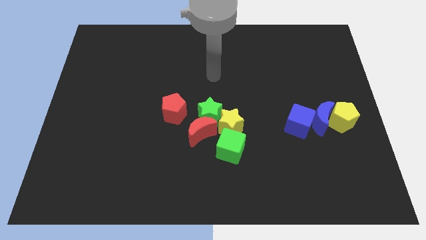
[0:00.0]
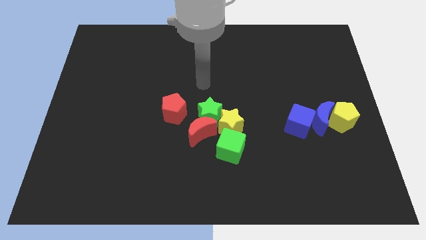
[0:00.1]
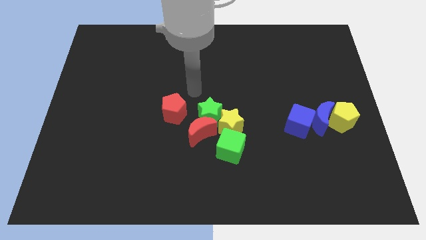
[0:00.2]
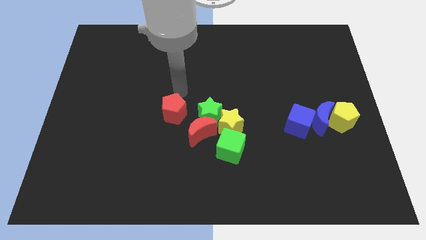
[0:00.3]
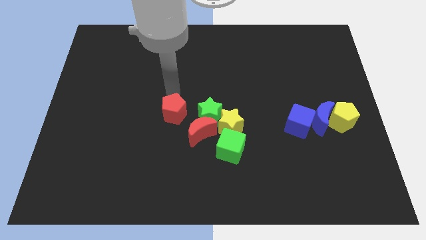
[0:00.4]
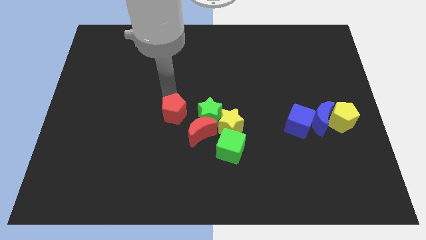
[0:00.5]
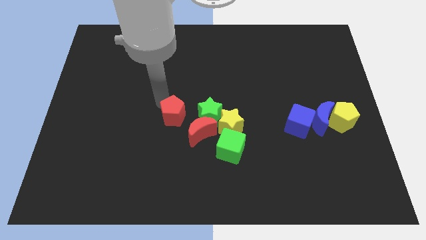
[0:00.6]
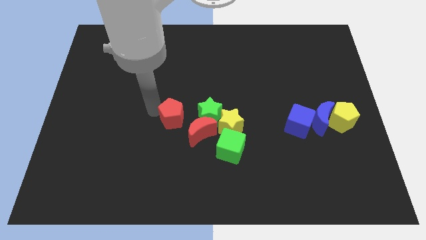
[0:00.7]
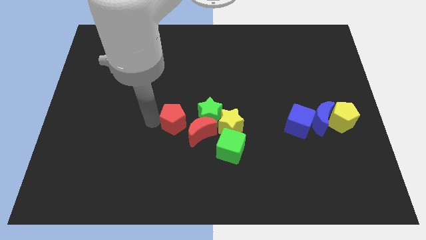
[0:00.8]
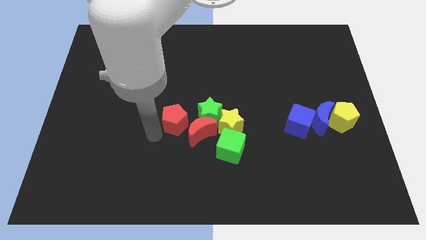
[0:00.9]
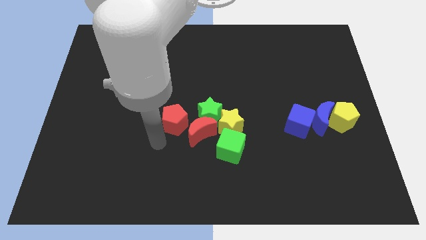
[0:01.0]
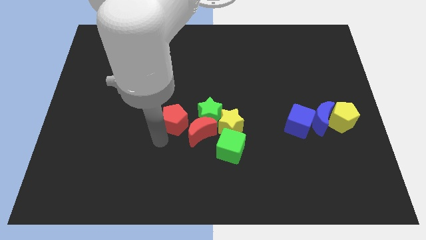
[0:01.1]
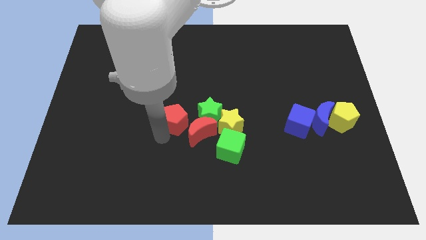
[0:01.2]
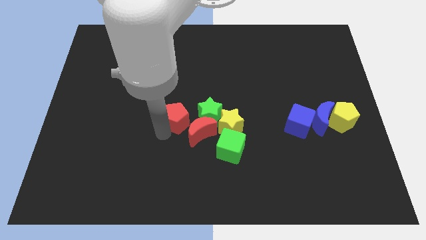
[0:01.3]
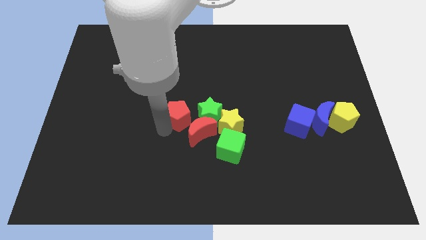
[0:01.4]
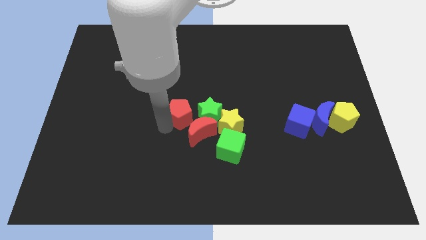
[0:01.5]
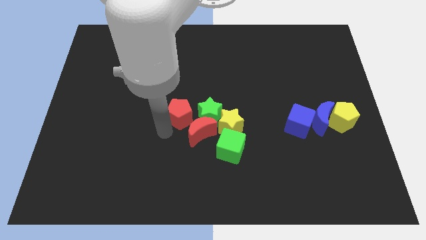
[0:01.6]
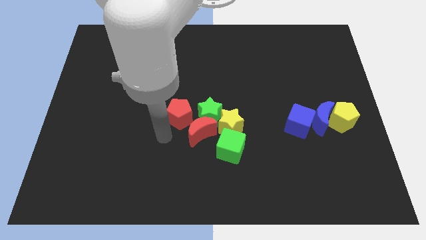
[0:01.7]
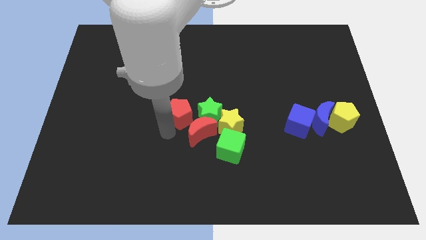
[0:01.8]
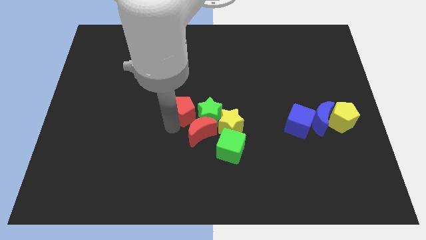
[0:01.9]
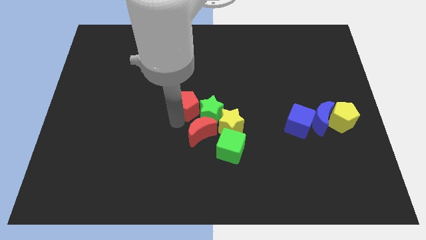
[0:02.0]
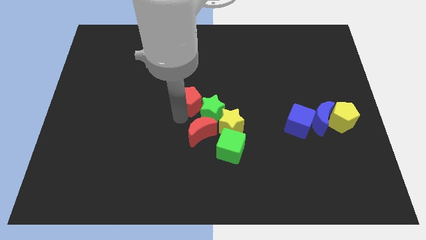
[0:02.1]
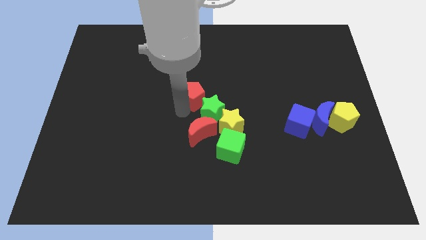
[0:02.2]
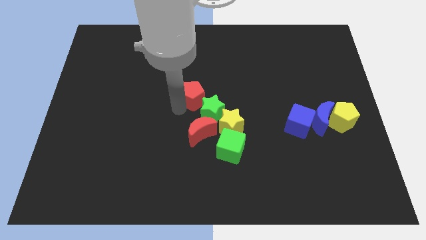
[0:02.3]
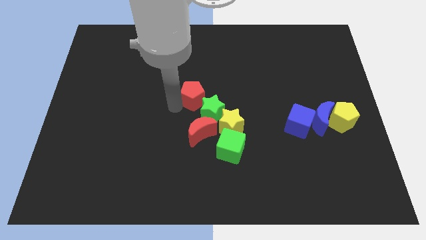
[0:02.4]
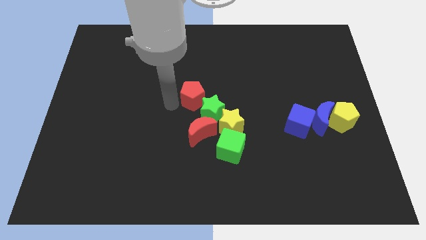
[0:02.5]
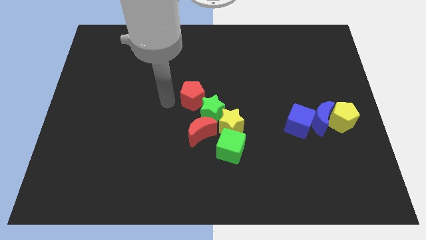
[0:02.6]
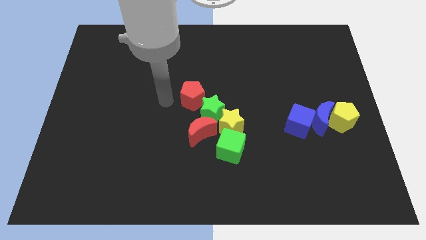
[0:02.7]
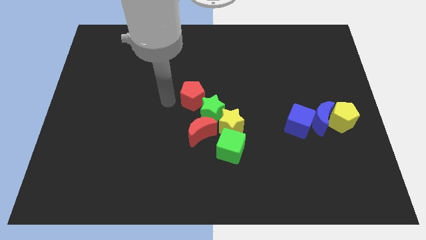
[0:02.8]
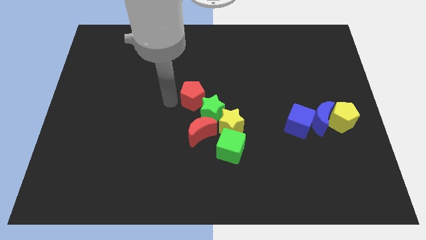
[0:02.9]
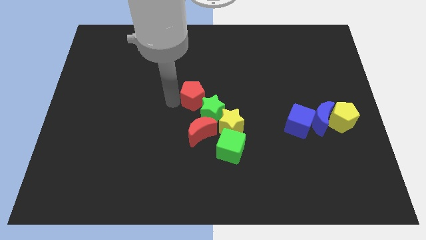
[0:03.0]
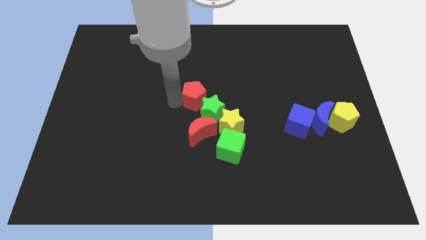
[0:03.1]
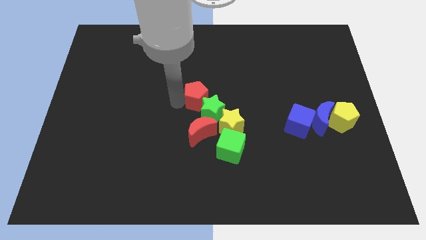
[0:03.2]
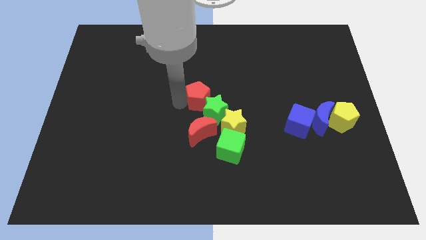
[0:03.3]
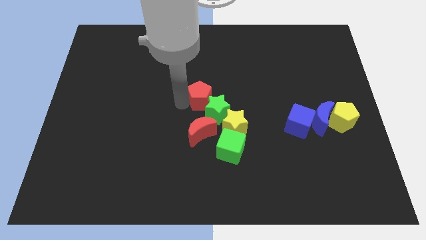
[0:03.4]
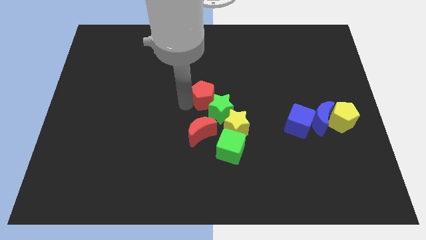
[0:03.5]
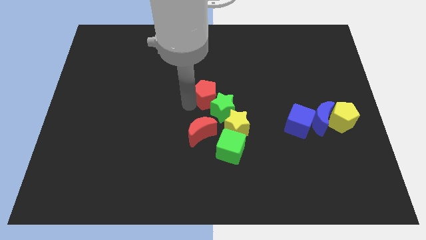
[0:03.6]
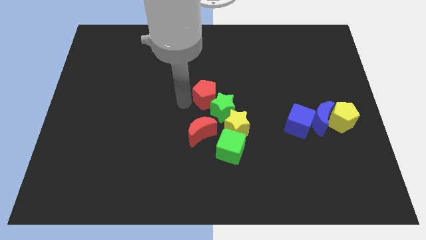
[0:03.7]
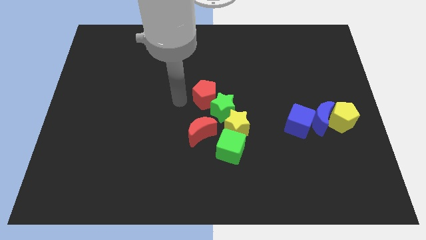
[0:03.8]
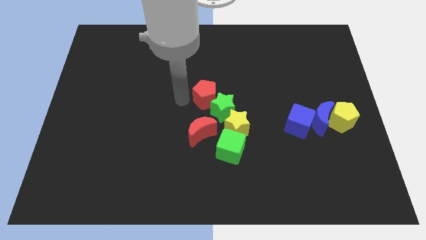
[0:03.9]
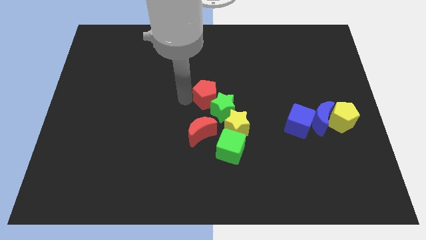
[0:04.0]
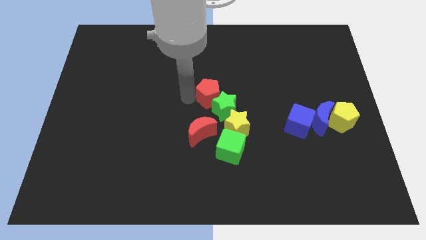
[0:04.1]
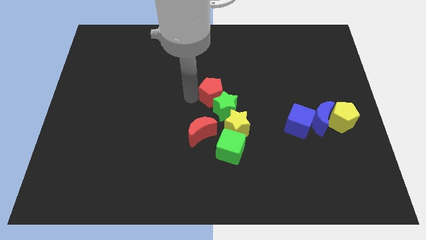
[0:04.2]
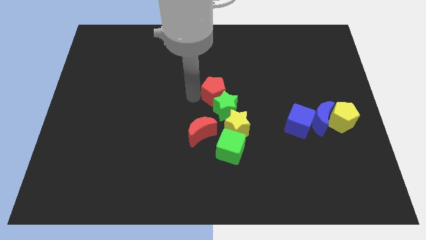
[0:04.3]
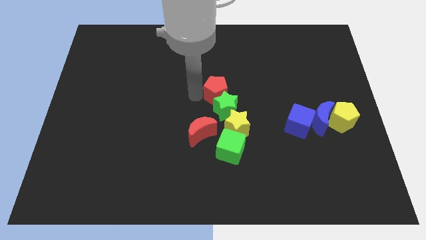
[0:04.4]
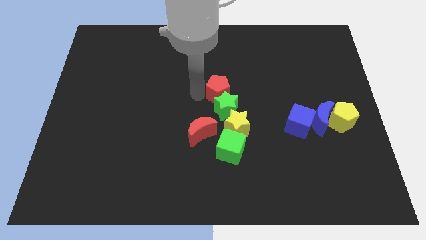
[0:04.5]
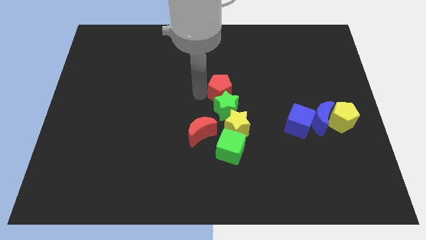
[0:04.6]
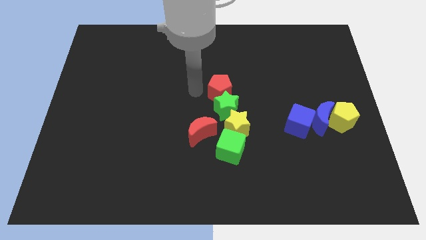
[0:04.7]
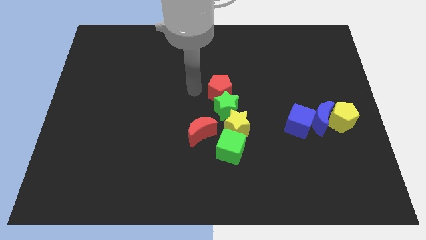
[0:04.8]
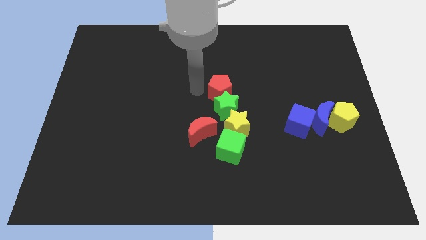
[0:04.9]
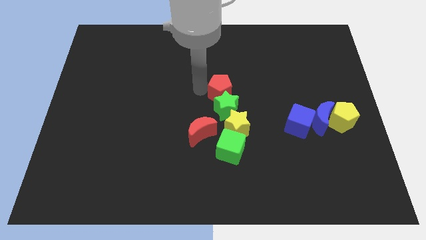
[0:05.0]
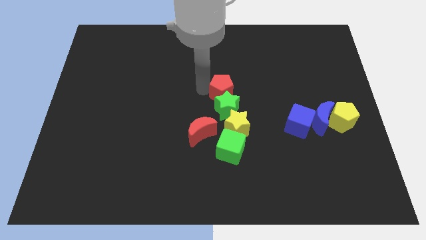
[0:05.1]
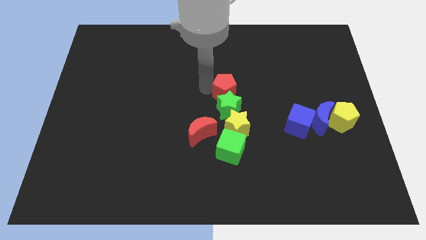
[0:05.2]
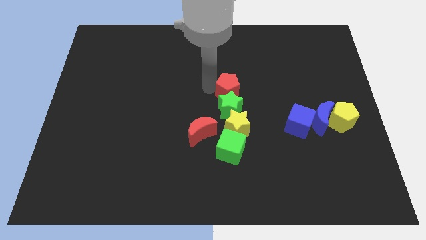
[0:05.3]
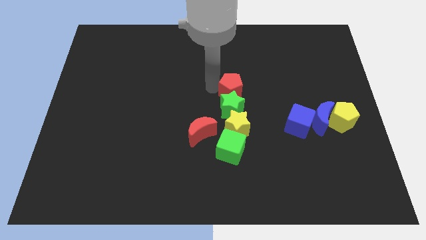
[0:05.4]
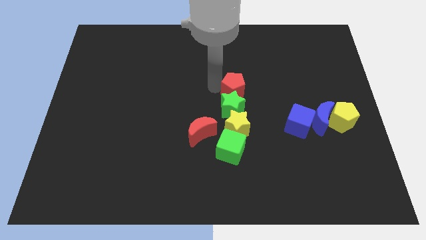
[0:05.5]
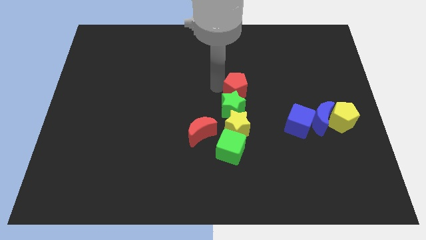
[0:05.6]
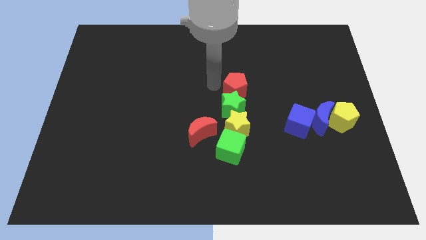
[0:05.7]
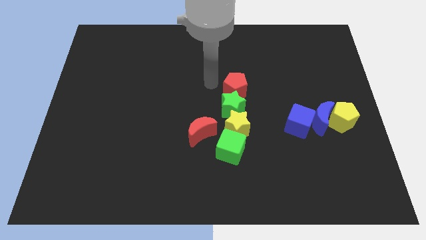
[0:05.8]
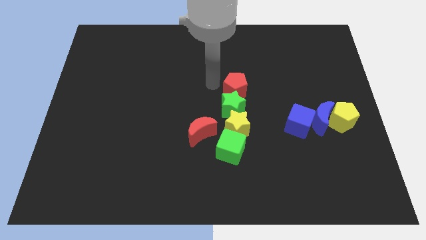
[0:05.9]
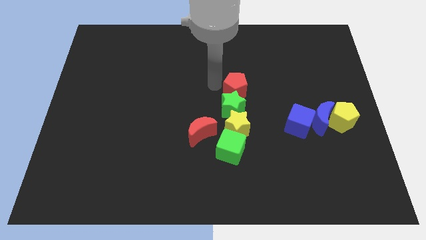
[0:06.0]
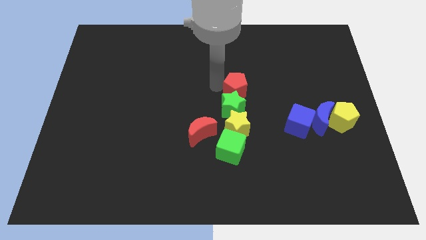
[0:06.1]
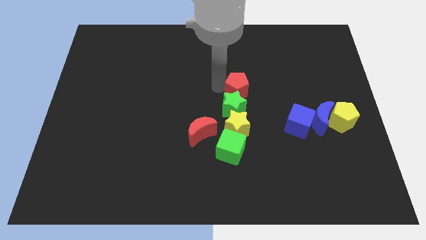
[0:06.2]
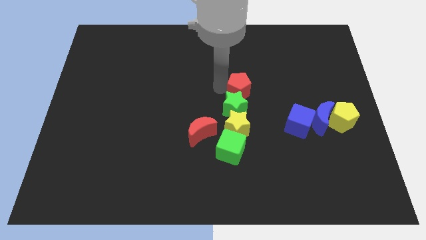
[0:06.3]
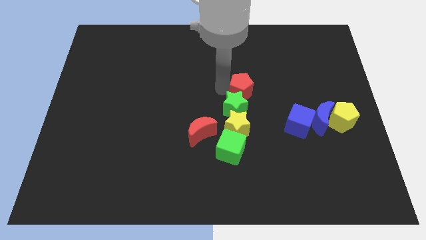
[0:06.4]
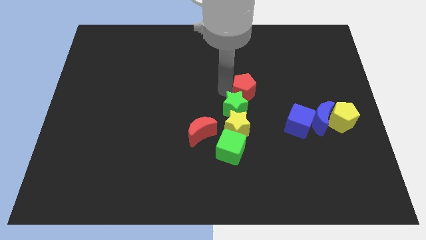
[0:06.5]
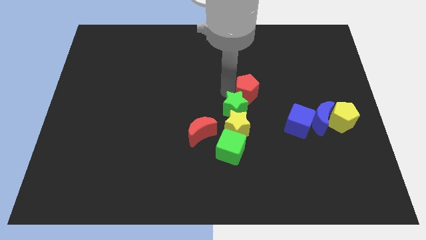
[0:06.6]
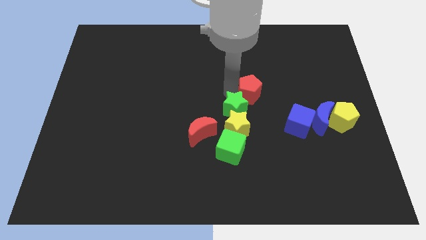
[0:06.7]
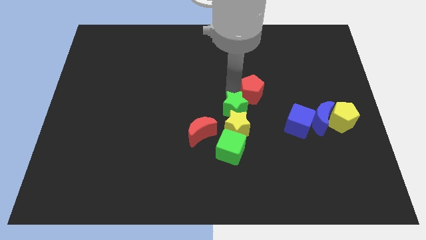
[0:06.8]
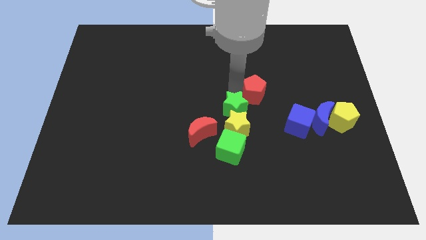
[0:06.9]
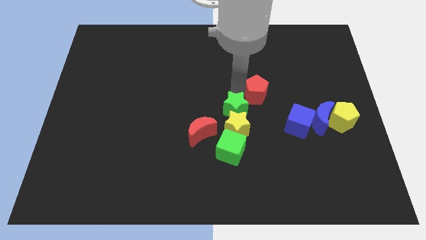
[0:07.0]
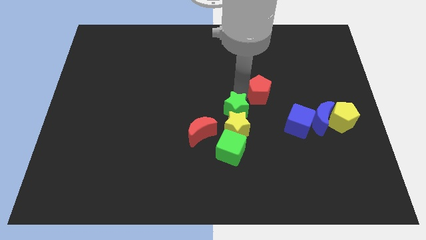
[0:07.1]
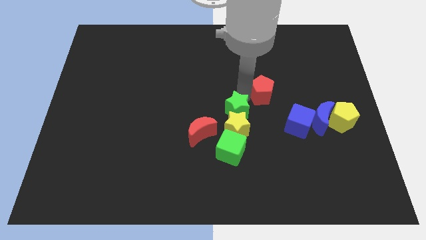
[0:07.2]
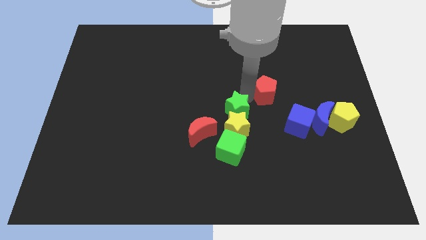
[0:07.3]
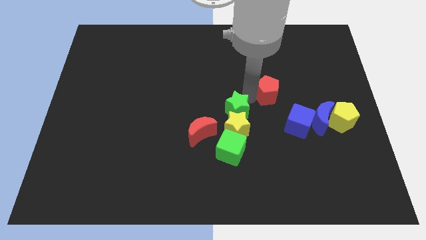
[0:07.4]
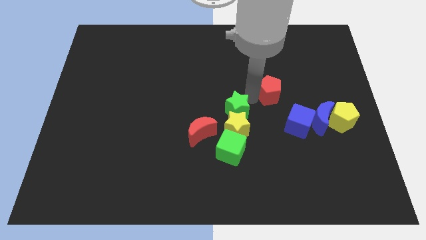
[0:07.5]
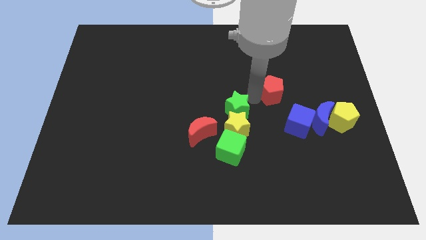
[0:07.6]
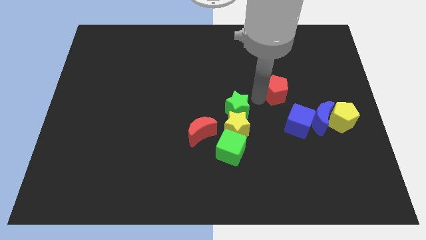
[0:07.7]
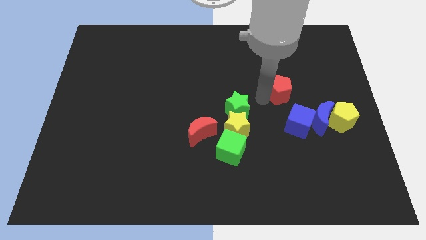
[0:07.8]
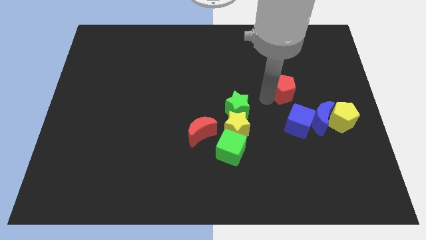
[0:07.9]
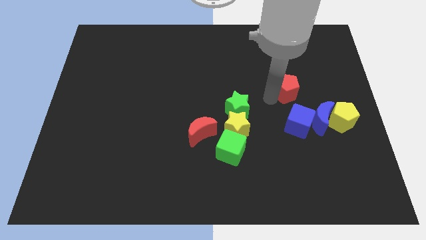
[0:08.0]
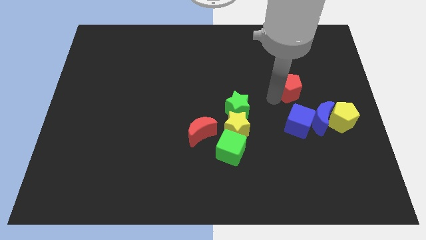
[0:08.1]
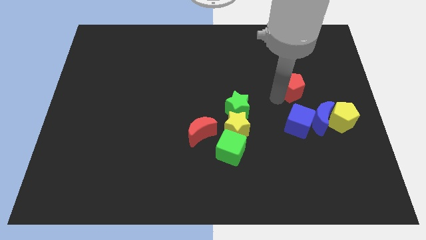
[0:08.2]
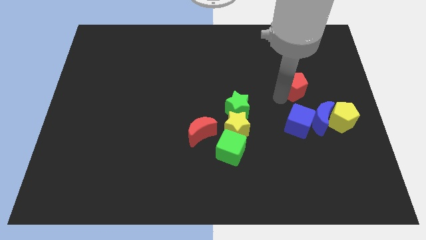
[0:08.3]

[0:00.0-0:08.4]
slide the red pentagon to the top of the blue moon
